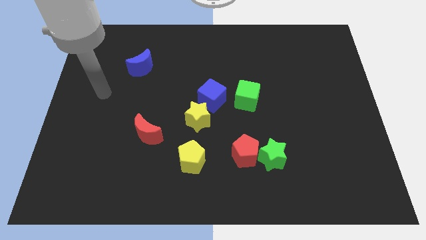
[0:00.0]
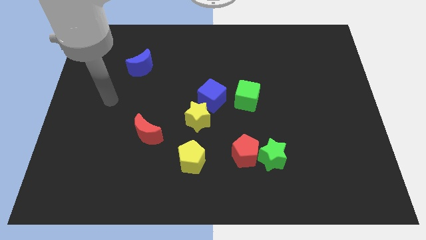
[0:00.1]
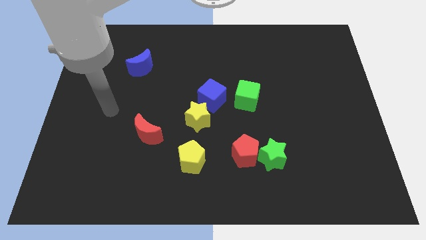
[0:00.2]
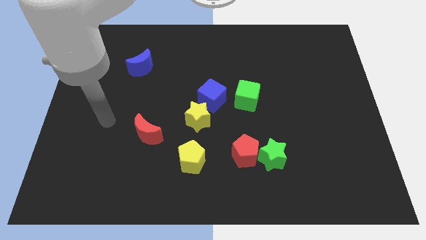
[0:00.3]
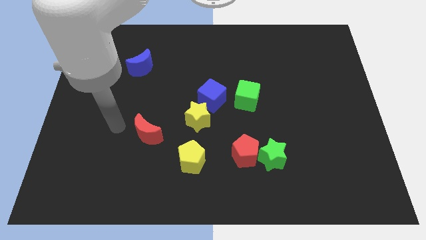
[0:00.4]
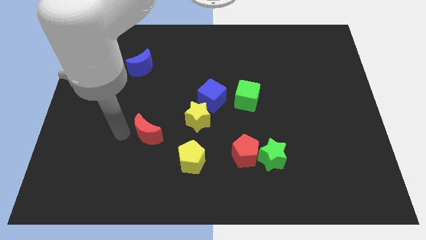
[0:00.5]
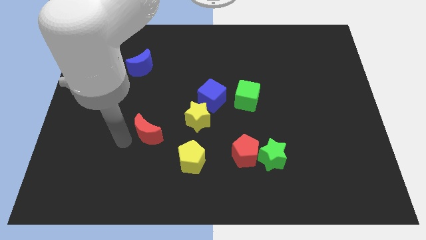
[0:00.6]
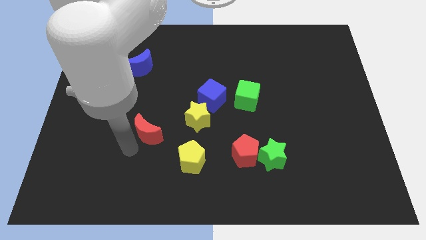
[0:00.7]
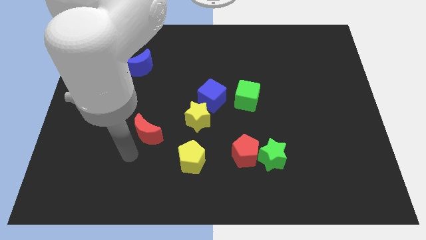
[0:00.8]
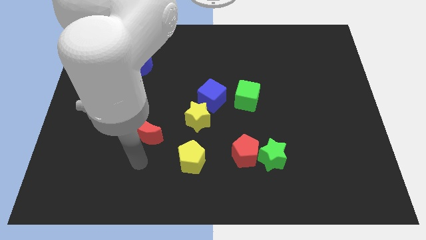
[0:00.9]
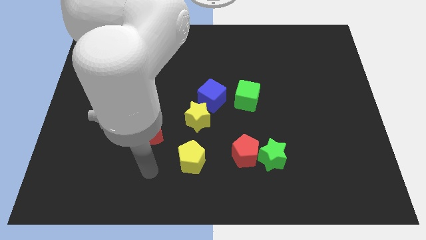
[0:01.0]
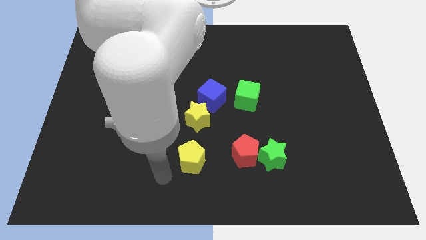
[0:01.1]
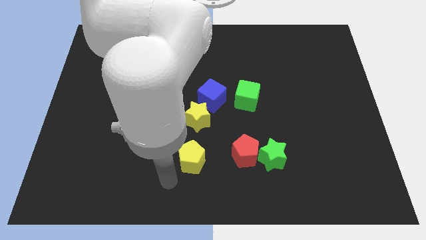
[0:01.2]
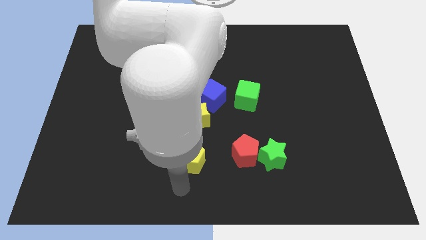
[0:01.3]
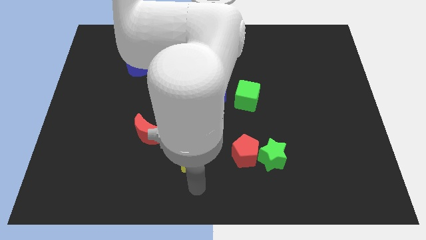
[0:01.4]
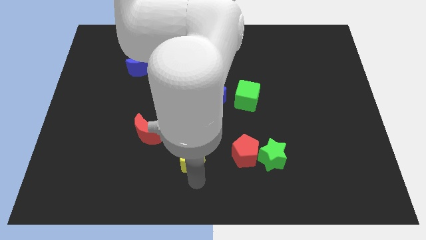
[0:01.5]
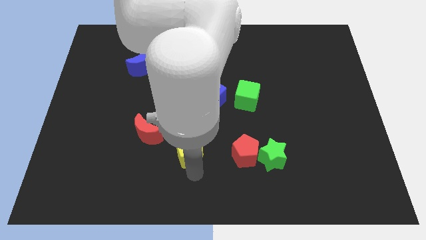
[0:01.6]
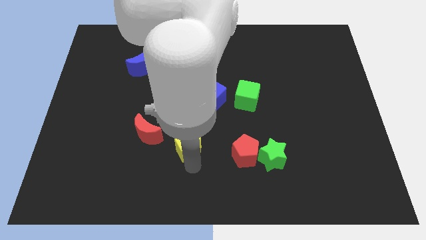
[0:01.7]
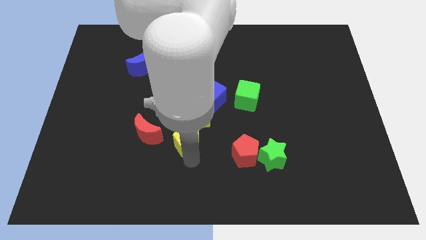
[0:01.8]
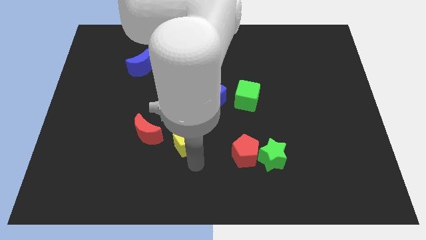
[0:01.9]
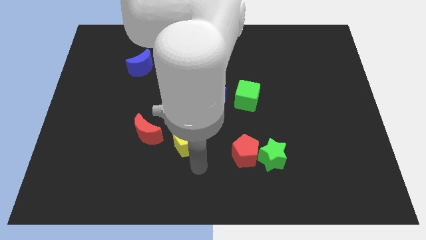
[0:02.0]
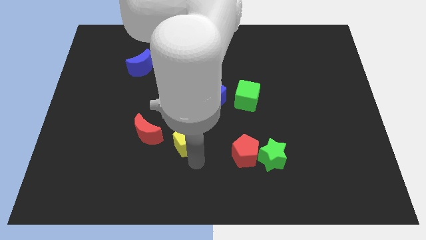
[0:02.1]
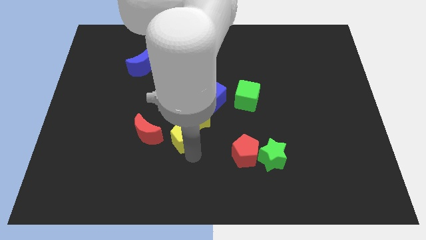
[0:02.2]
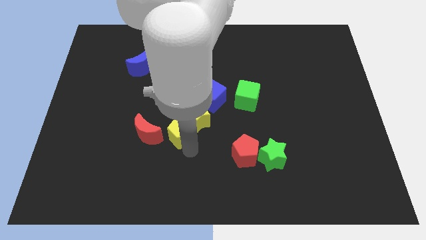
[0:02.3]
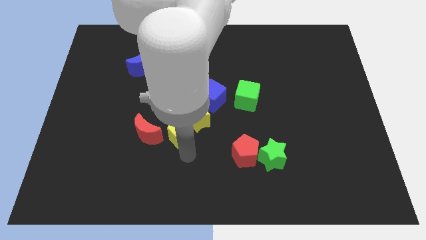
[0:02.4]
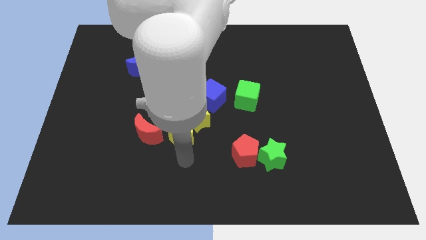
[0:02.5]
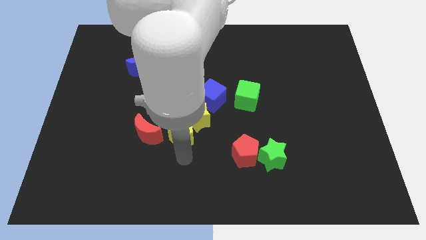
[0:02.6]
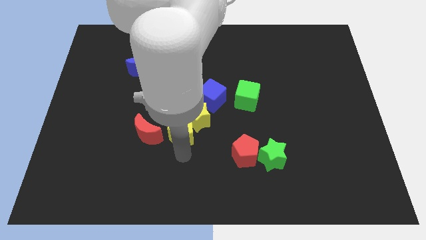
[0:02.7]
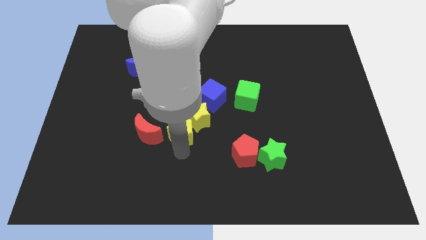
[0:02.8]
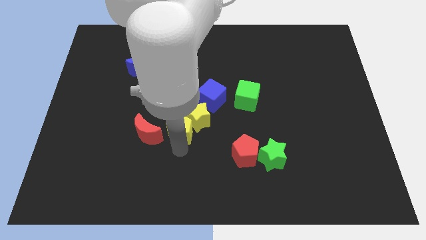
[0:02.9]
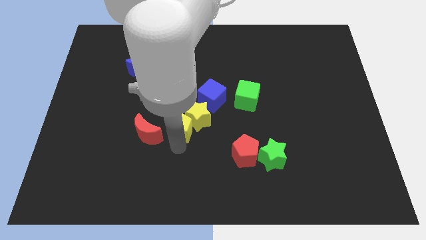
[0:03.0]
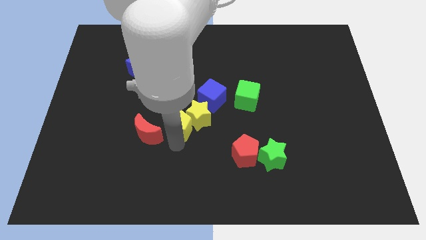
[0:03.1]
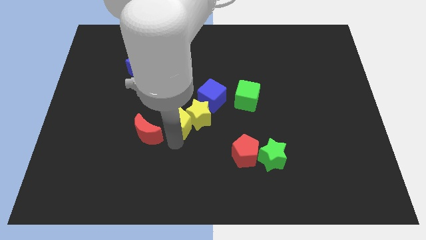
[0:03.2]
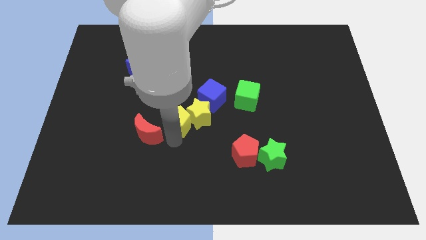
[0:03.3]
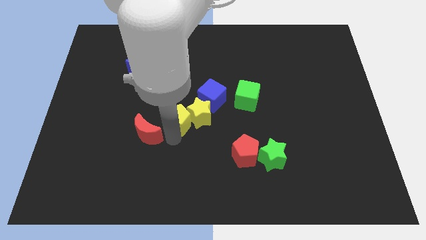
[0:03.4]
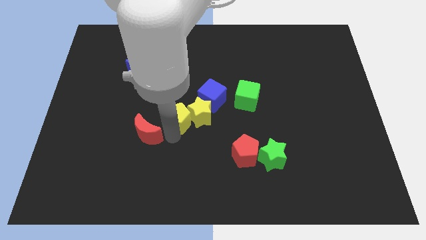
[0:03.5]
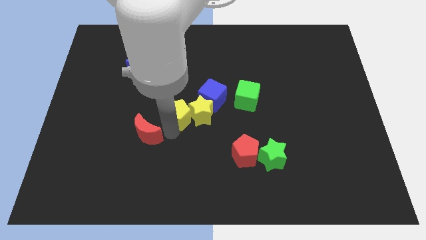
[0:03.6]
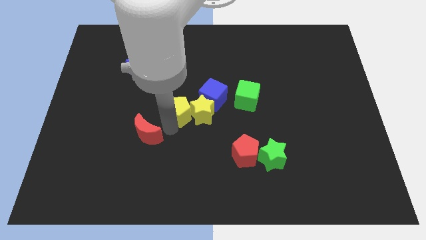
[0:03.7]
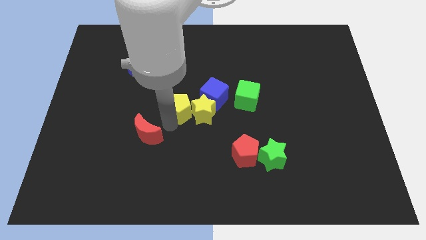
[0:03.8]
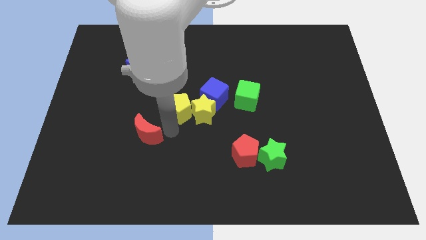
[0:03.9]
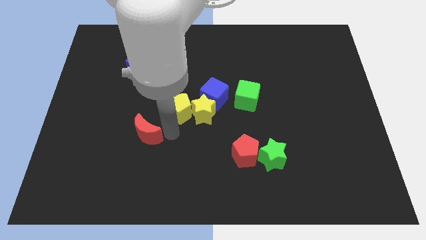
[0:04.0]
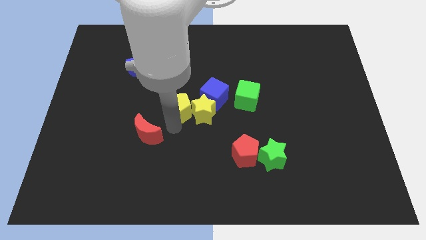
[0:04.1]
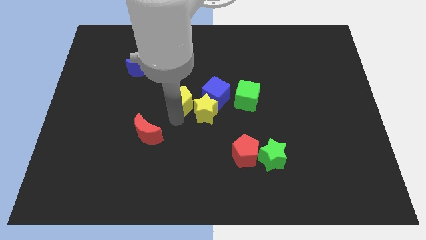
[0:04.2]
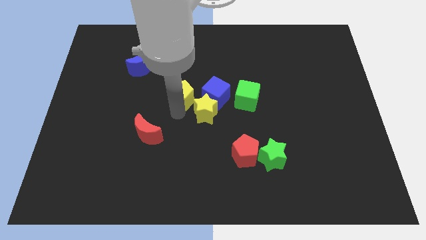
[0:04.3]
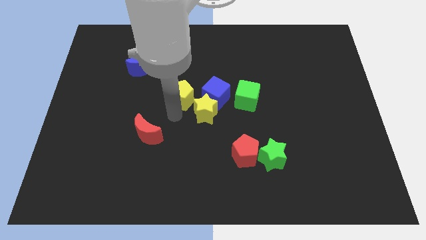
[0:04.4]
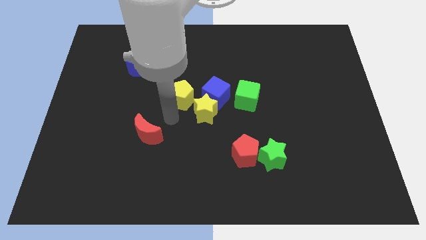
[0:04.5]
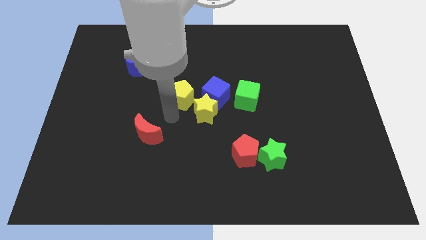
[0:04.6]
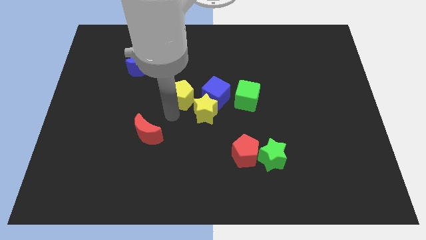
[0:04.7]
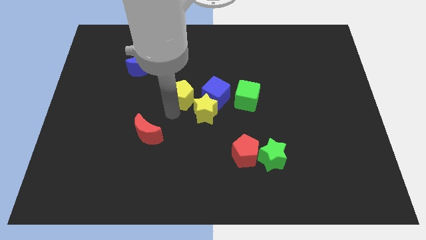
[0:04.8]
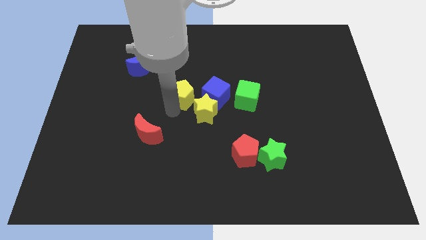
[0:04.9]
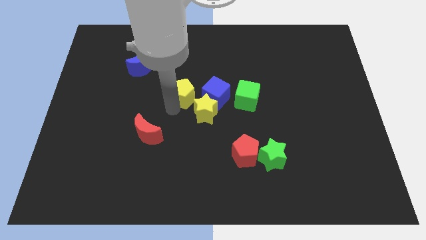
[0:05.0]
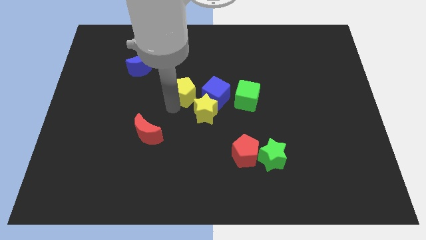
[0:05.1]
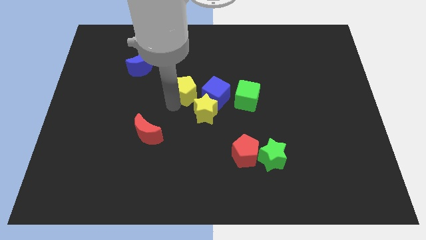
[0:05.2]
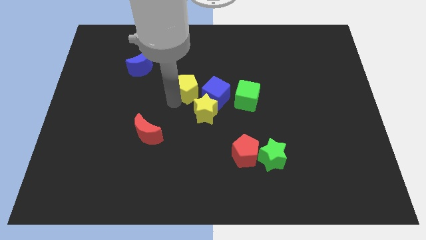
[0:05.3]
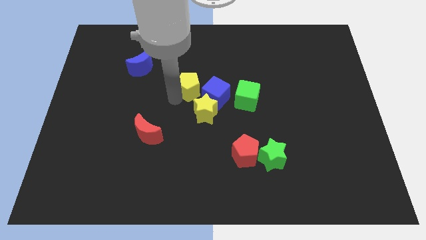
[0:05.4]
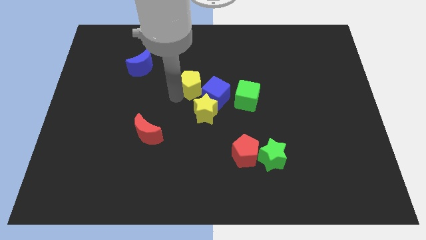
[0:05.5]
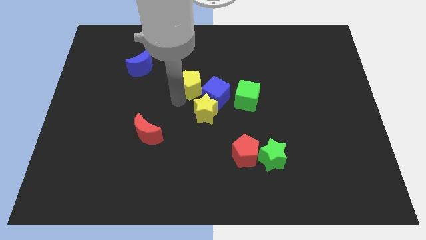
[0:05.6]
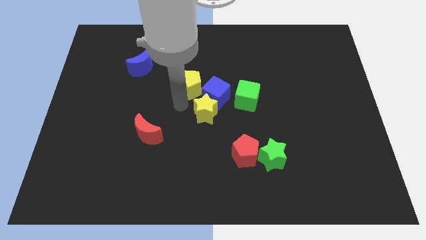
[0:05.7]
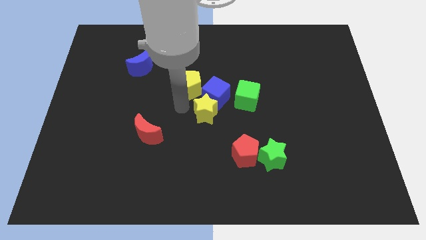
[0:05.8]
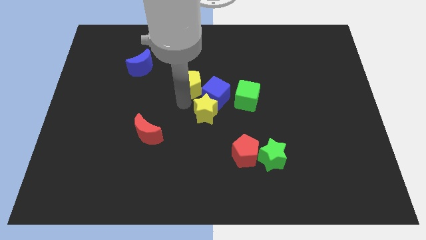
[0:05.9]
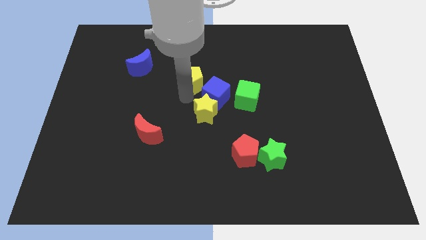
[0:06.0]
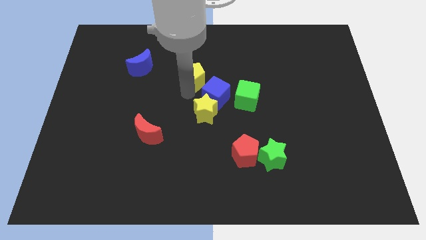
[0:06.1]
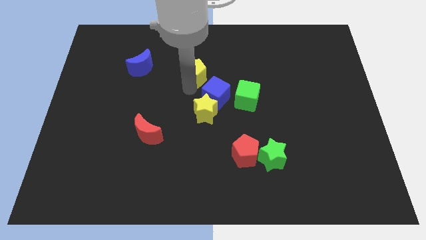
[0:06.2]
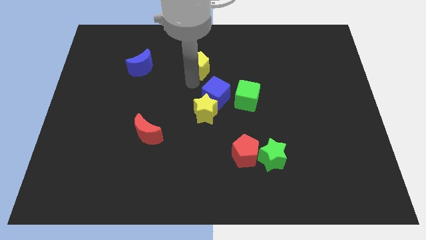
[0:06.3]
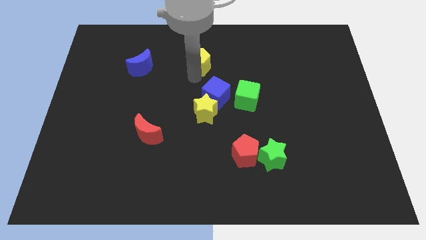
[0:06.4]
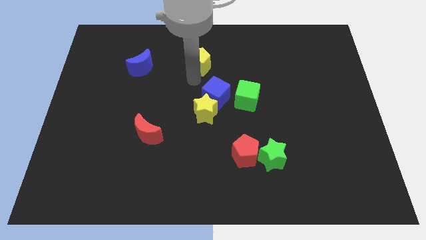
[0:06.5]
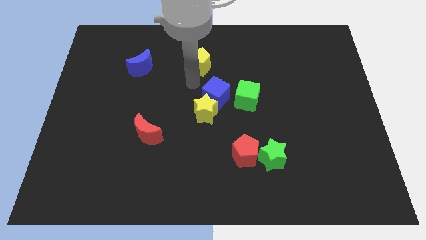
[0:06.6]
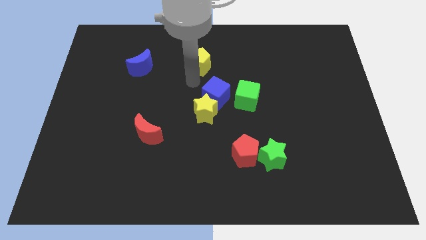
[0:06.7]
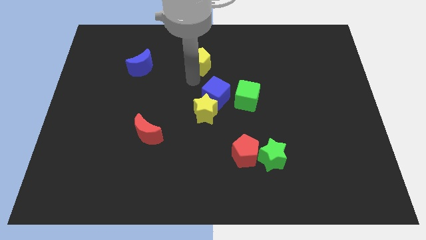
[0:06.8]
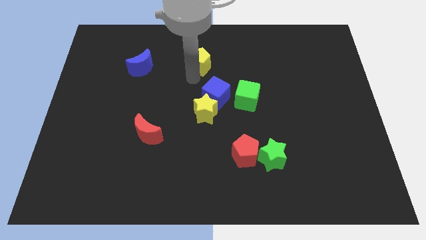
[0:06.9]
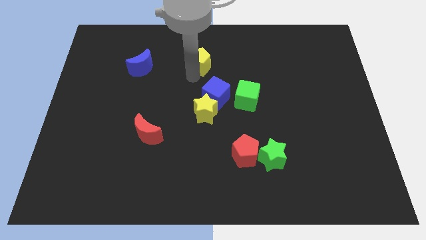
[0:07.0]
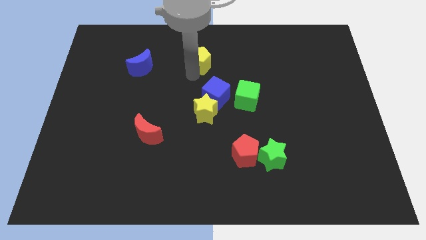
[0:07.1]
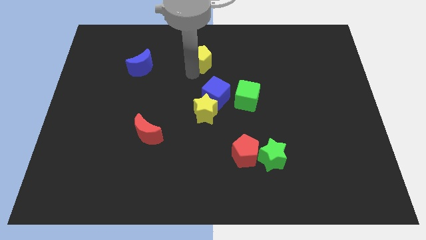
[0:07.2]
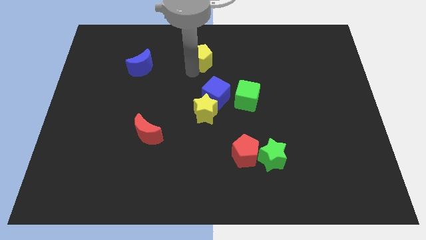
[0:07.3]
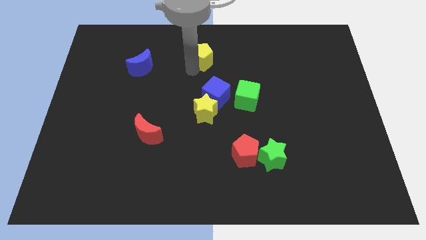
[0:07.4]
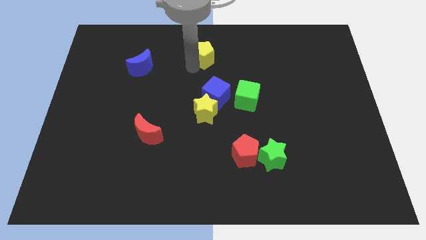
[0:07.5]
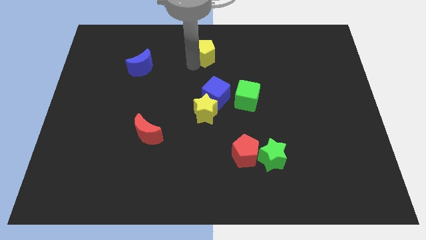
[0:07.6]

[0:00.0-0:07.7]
put the yellow pentagon to the top
